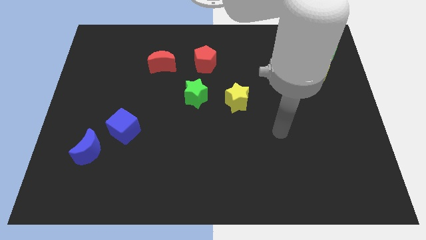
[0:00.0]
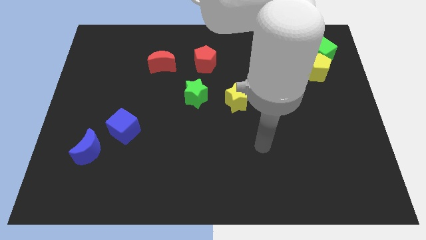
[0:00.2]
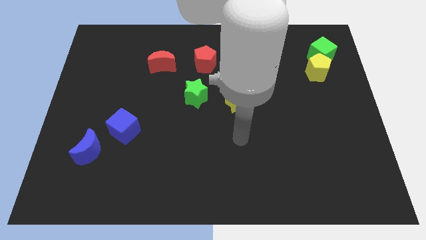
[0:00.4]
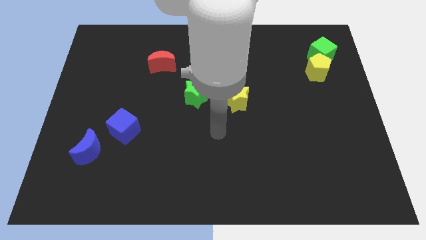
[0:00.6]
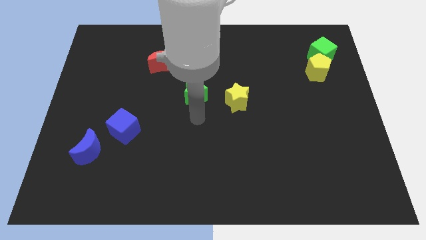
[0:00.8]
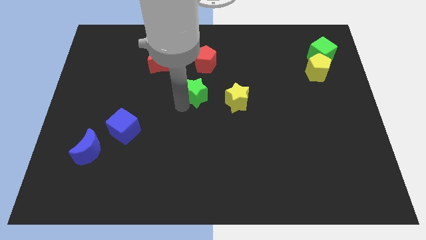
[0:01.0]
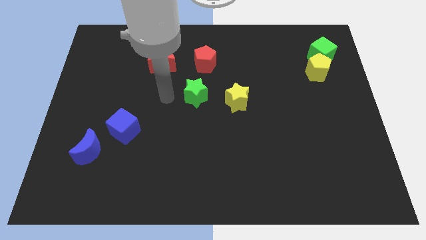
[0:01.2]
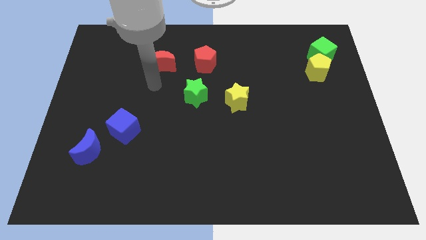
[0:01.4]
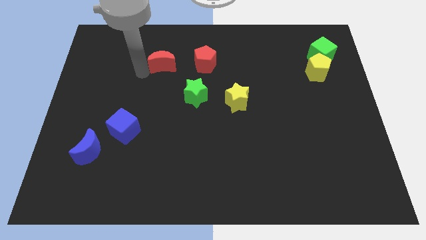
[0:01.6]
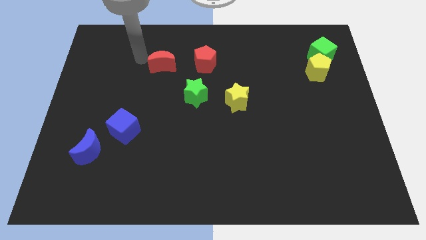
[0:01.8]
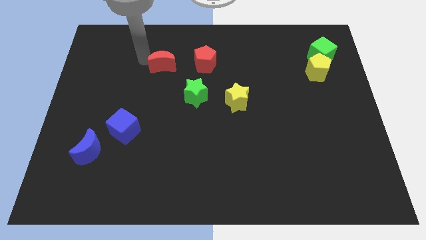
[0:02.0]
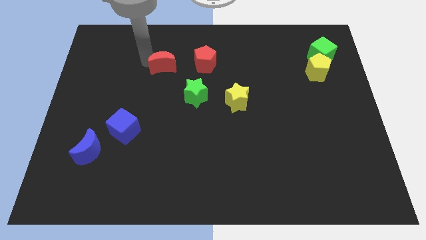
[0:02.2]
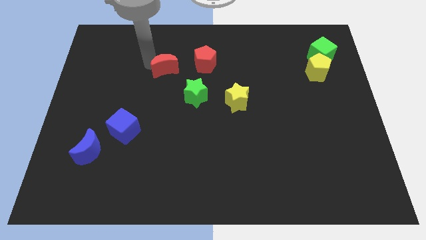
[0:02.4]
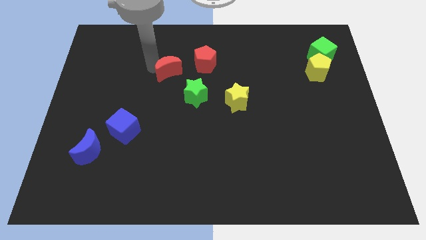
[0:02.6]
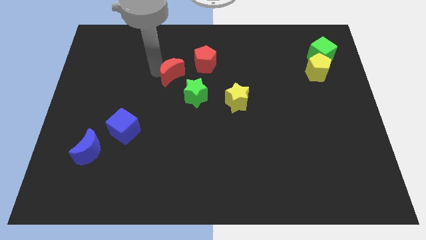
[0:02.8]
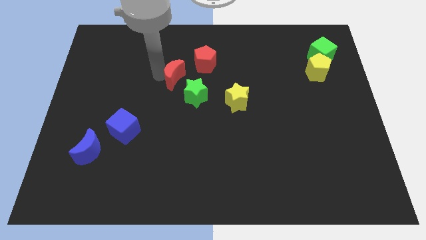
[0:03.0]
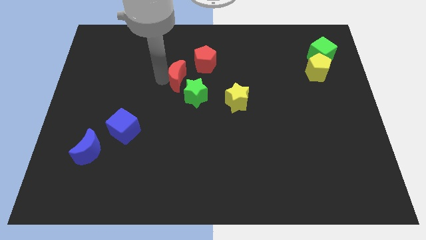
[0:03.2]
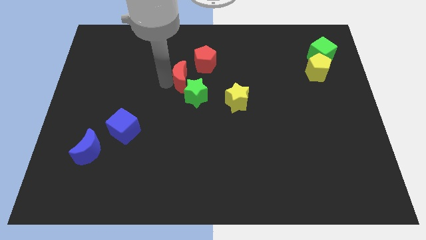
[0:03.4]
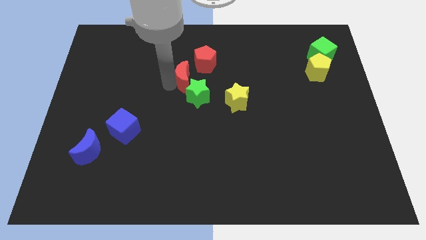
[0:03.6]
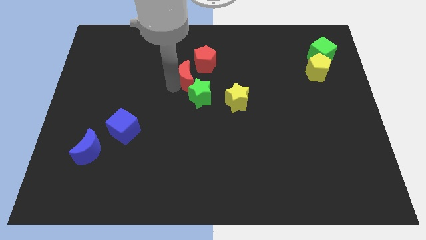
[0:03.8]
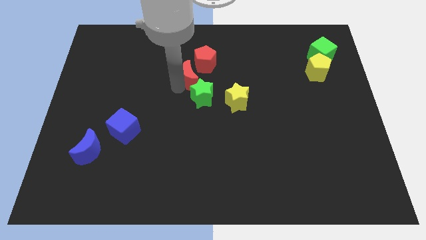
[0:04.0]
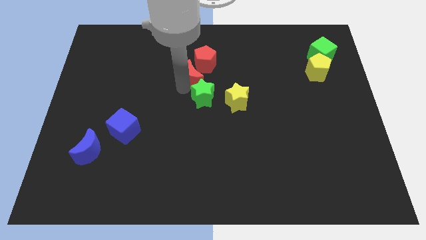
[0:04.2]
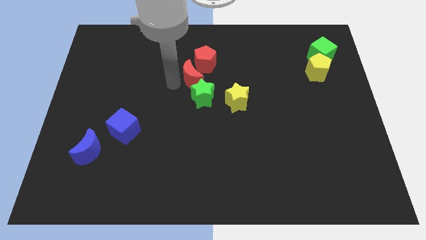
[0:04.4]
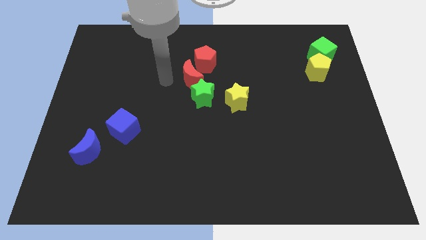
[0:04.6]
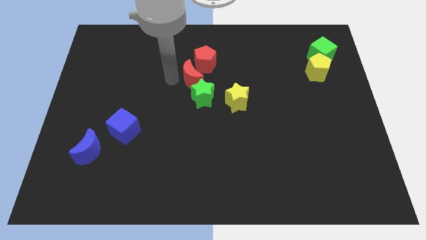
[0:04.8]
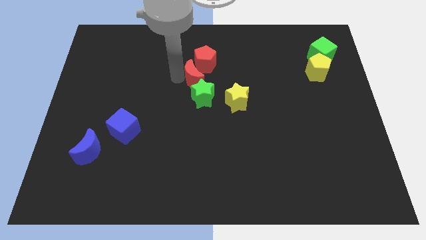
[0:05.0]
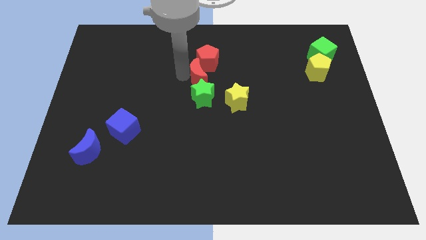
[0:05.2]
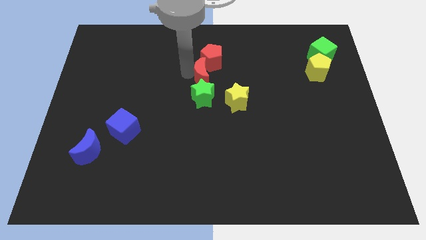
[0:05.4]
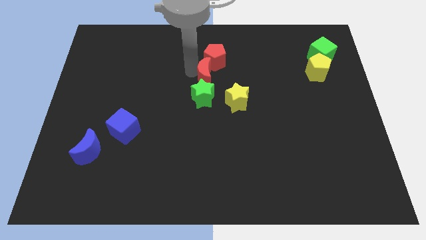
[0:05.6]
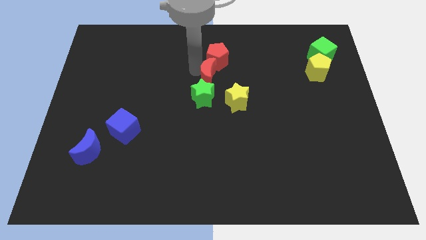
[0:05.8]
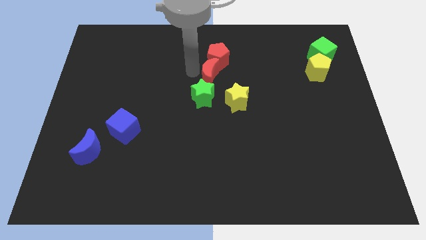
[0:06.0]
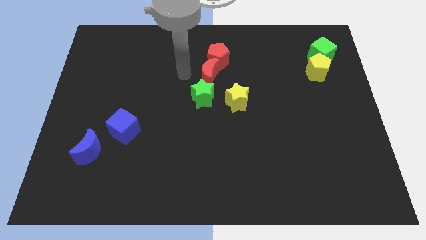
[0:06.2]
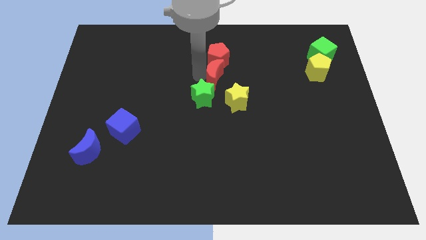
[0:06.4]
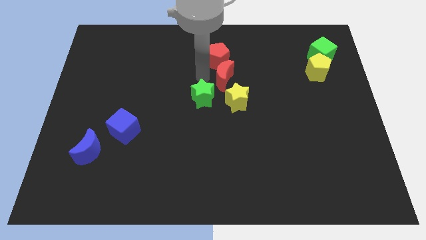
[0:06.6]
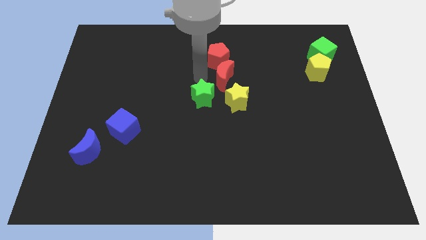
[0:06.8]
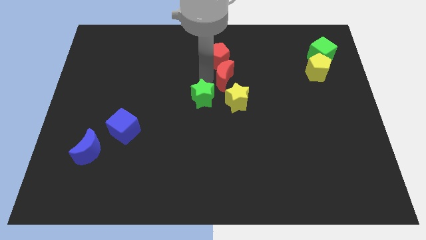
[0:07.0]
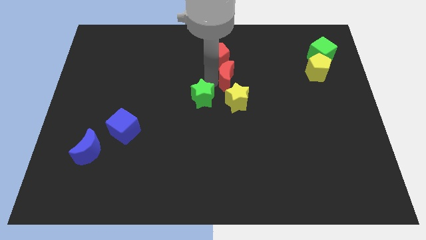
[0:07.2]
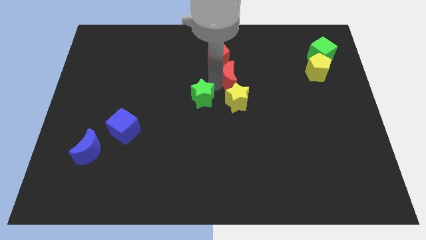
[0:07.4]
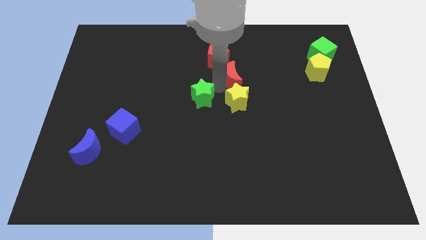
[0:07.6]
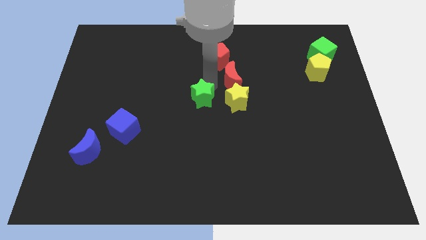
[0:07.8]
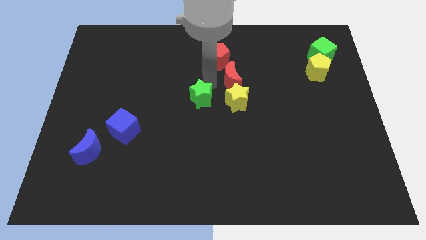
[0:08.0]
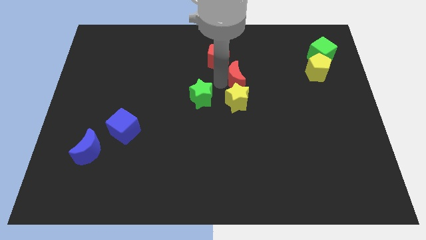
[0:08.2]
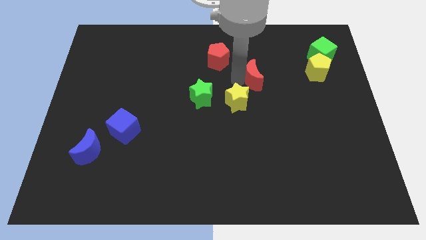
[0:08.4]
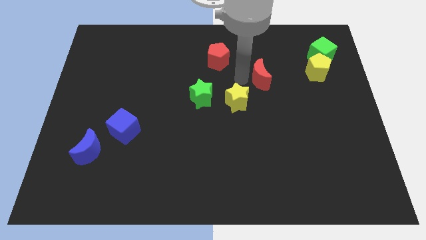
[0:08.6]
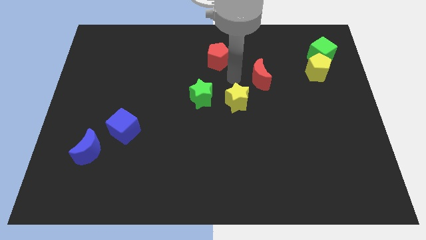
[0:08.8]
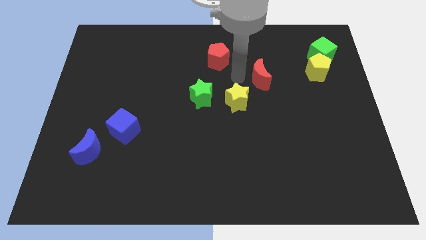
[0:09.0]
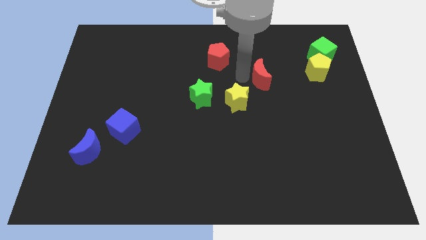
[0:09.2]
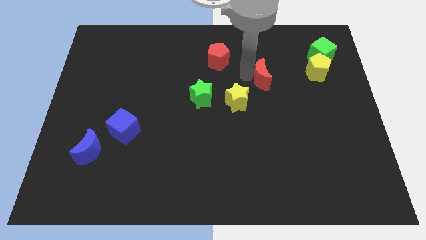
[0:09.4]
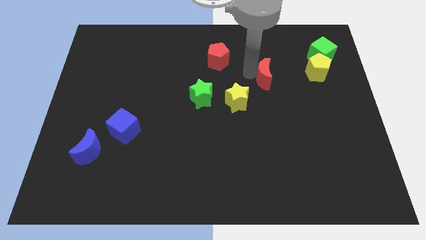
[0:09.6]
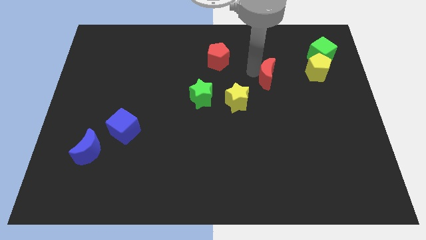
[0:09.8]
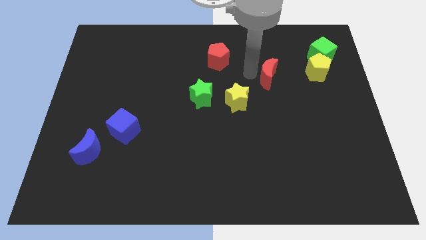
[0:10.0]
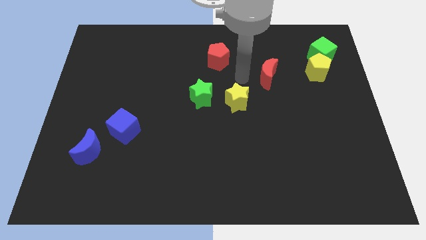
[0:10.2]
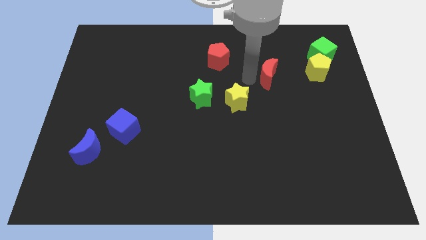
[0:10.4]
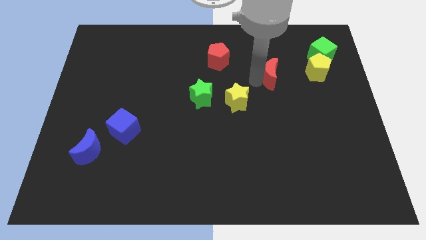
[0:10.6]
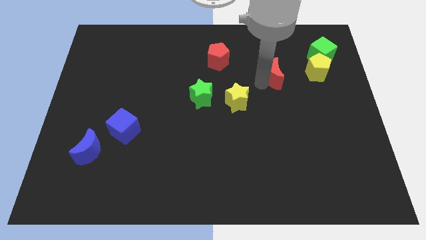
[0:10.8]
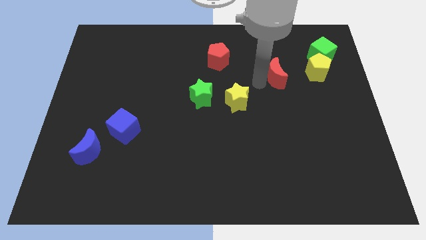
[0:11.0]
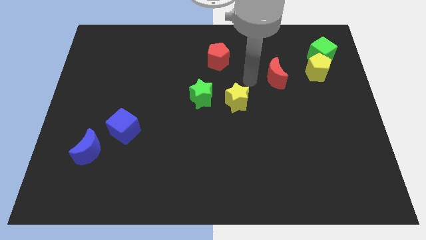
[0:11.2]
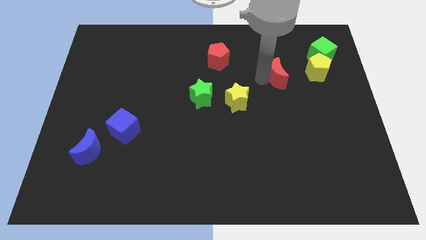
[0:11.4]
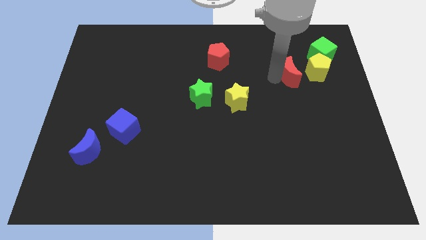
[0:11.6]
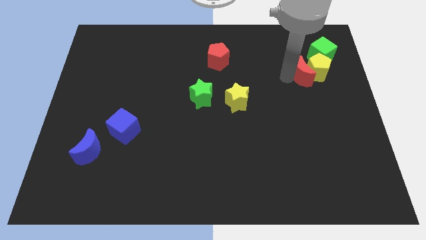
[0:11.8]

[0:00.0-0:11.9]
move the red moon close to the yellow pentagon

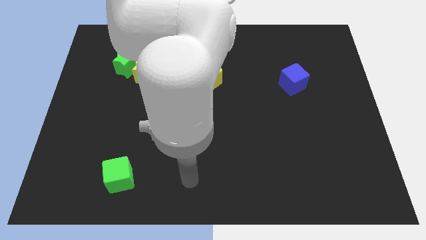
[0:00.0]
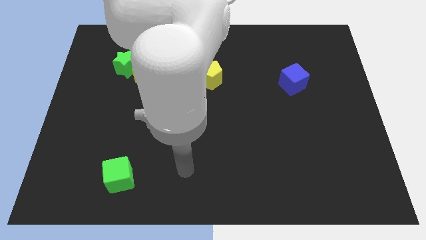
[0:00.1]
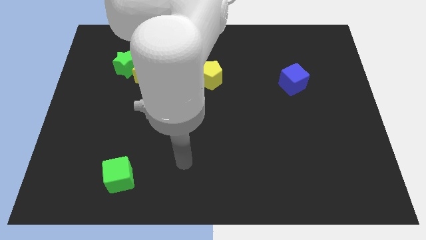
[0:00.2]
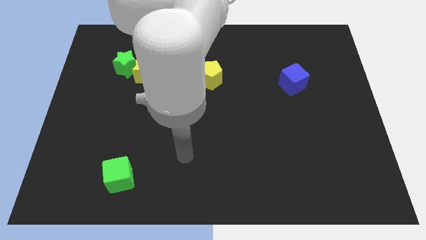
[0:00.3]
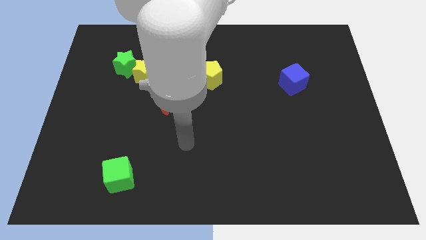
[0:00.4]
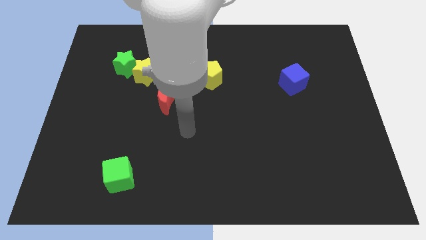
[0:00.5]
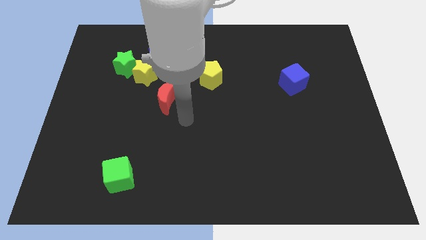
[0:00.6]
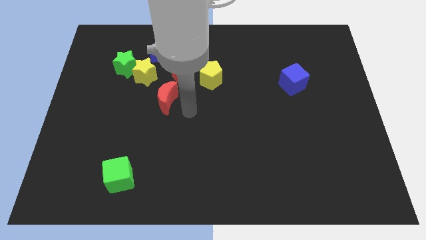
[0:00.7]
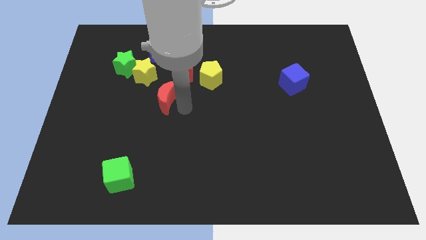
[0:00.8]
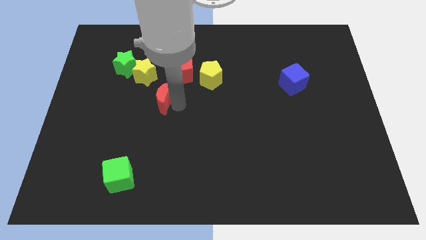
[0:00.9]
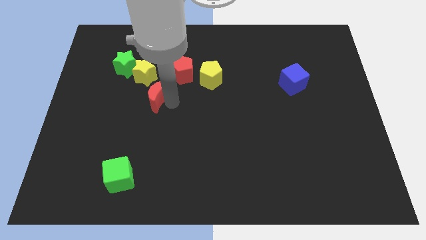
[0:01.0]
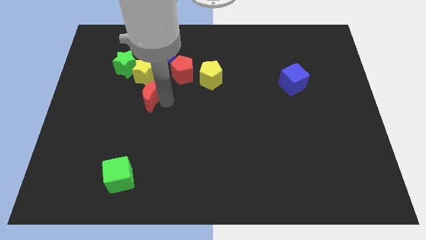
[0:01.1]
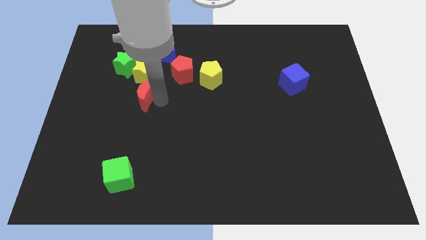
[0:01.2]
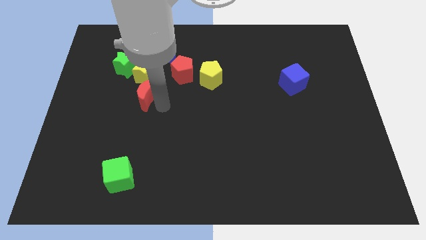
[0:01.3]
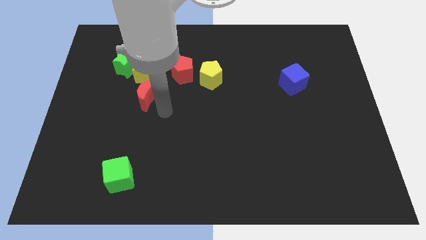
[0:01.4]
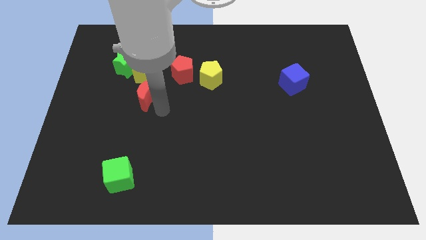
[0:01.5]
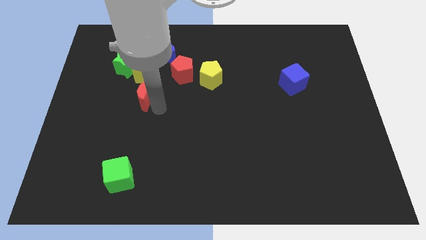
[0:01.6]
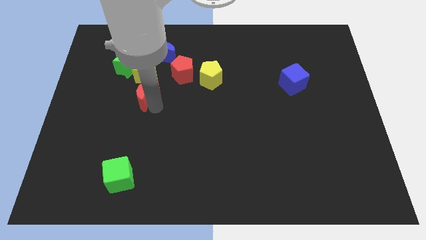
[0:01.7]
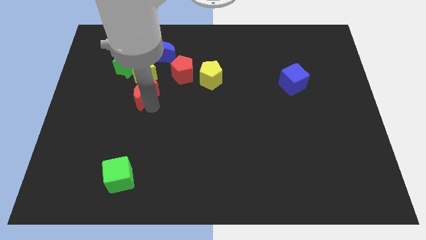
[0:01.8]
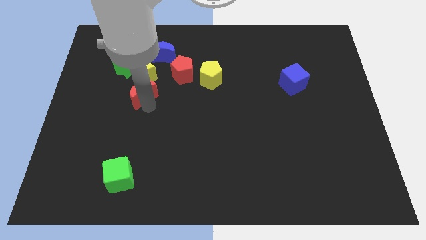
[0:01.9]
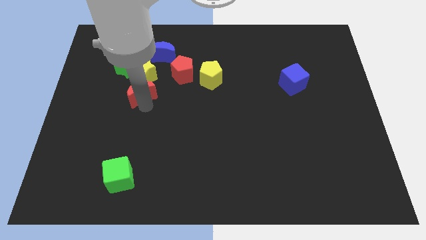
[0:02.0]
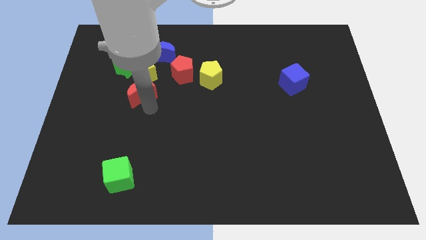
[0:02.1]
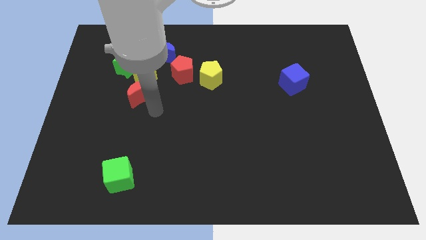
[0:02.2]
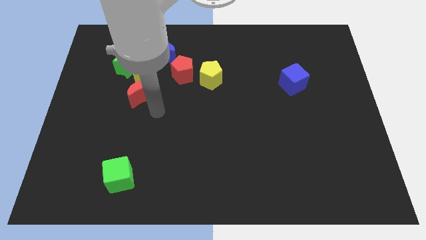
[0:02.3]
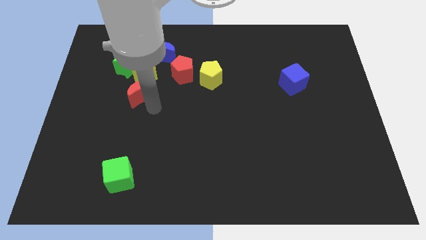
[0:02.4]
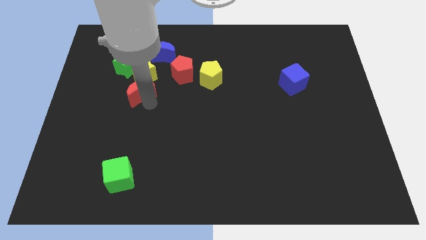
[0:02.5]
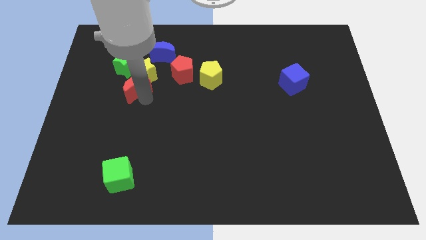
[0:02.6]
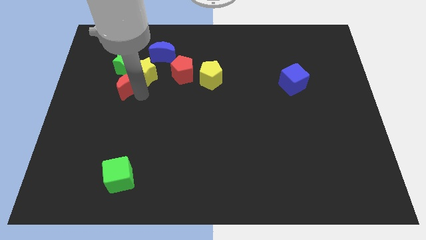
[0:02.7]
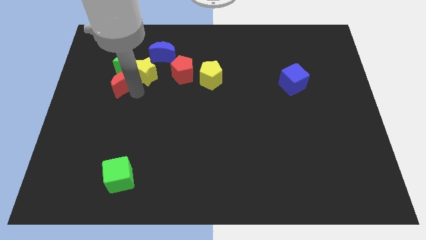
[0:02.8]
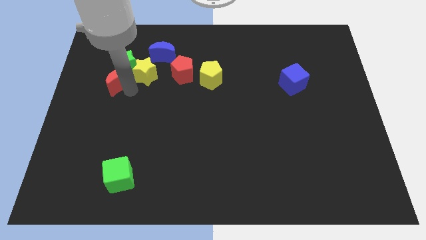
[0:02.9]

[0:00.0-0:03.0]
slide the red moon close to the green star
